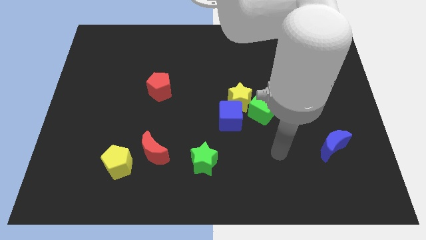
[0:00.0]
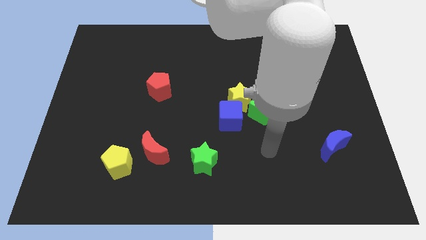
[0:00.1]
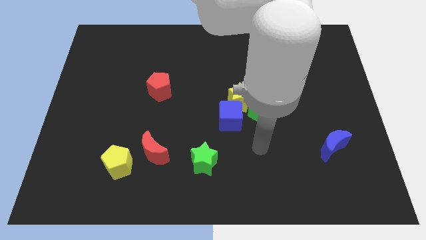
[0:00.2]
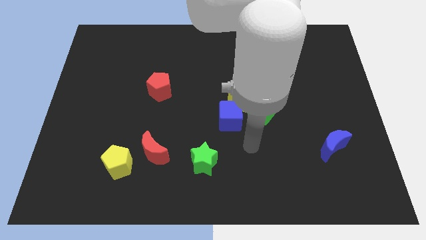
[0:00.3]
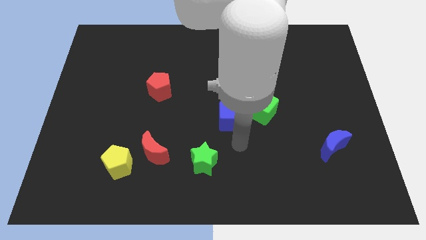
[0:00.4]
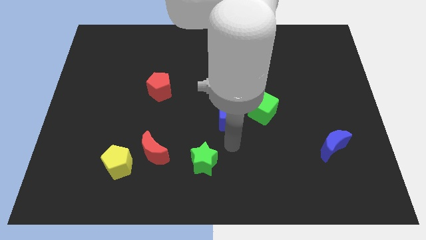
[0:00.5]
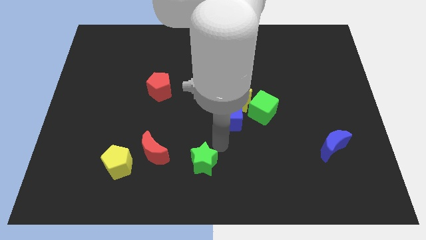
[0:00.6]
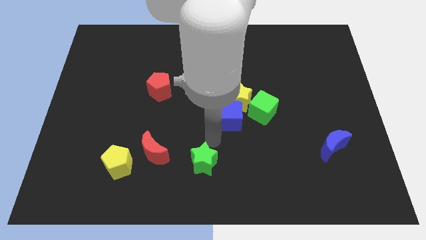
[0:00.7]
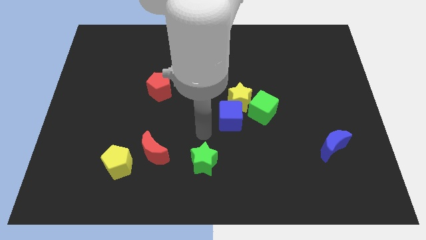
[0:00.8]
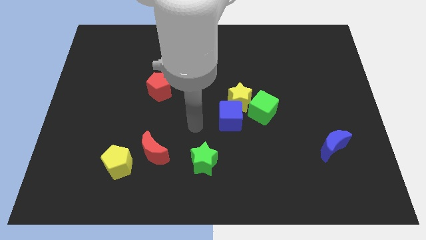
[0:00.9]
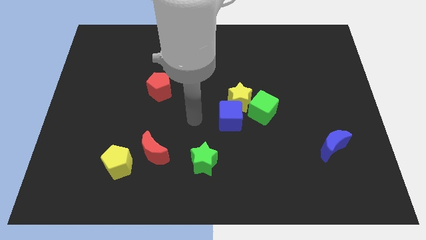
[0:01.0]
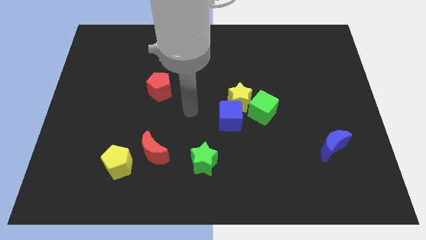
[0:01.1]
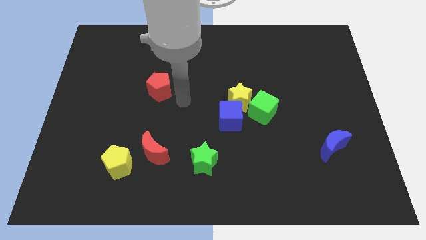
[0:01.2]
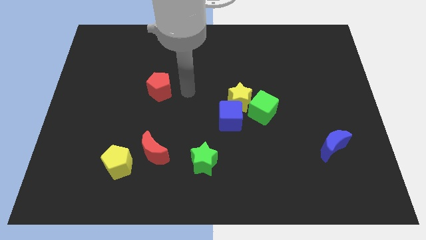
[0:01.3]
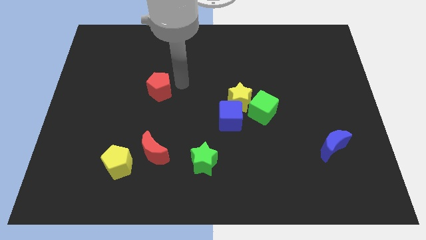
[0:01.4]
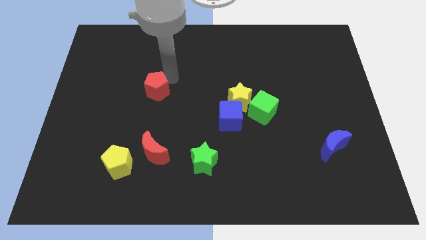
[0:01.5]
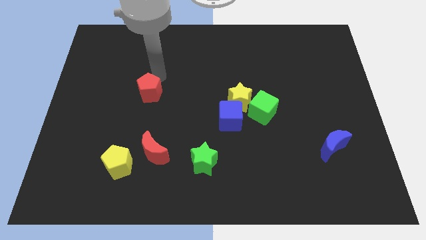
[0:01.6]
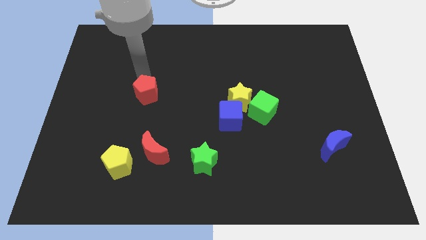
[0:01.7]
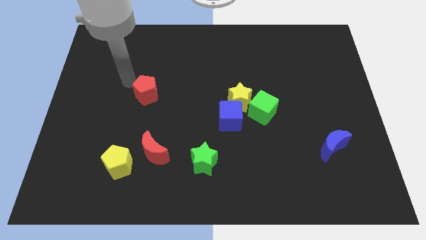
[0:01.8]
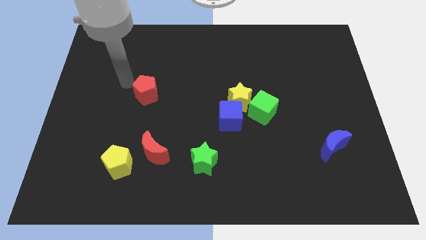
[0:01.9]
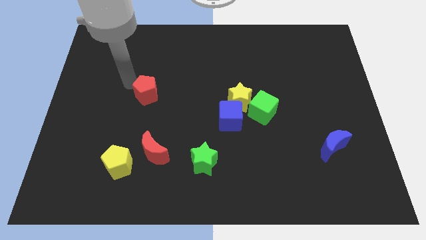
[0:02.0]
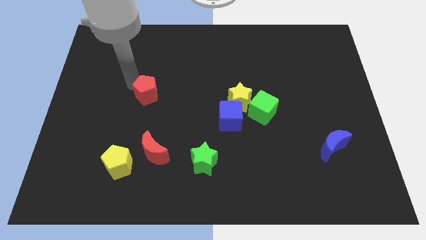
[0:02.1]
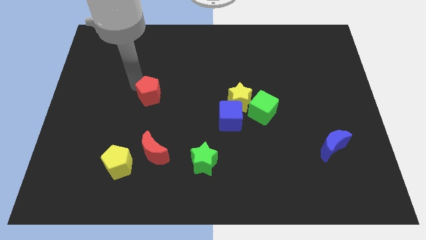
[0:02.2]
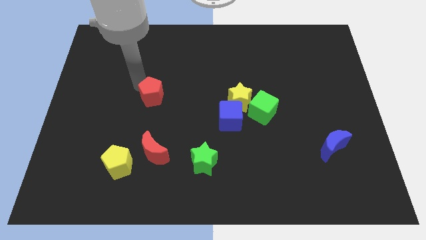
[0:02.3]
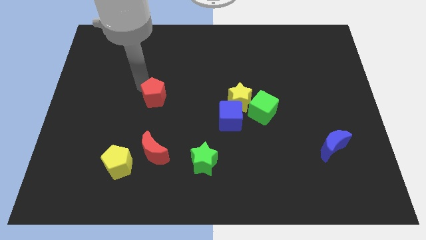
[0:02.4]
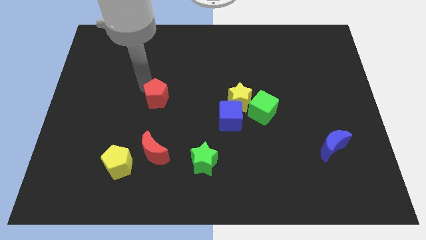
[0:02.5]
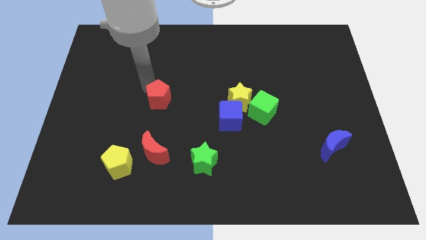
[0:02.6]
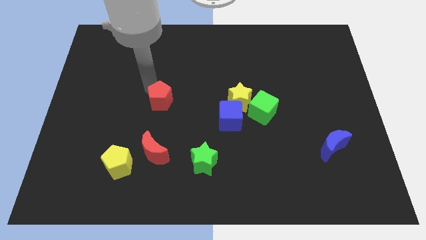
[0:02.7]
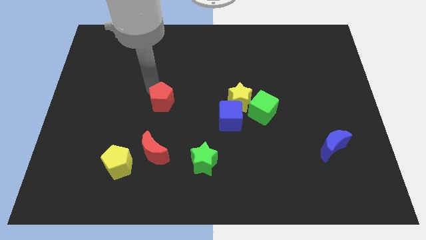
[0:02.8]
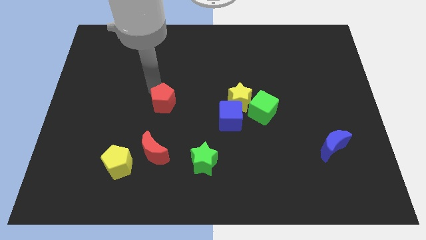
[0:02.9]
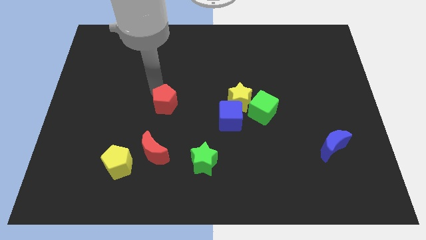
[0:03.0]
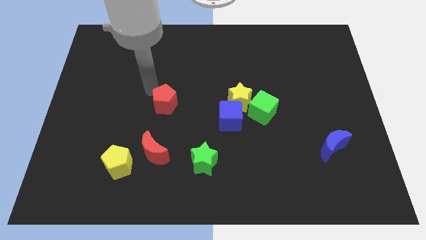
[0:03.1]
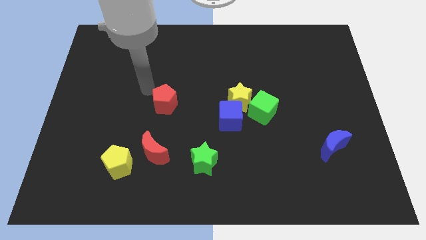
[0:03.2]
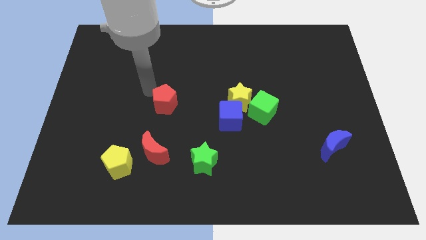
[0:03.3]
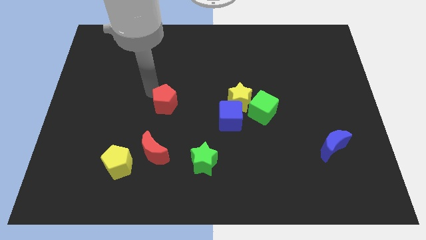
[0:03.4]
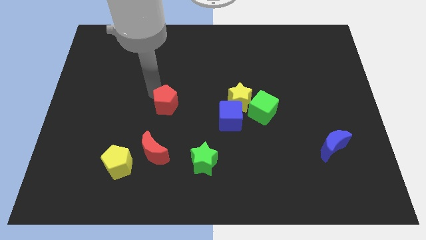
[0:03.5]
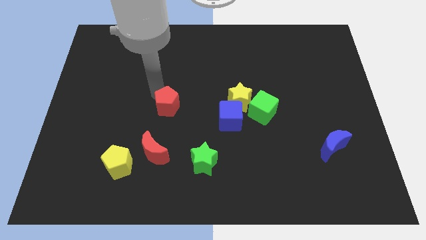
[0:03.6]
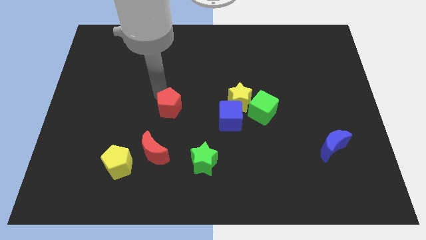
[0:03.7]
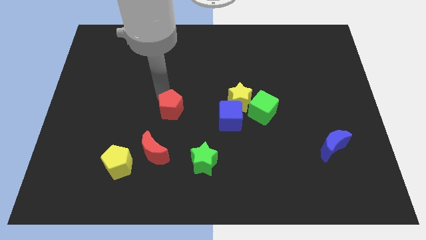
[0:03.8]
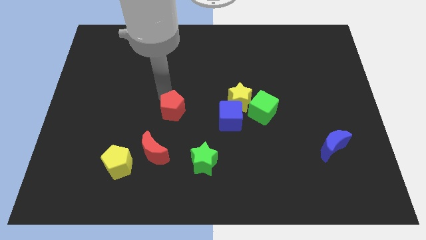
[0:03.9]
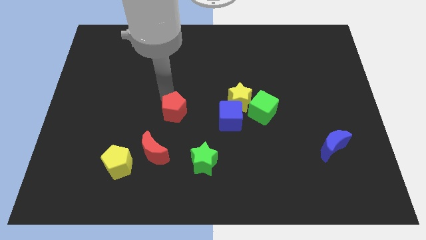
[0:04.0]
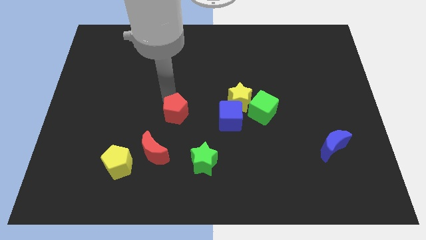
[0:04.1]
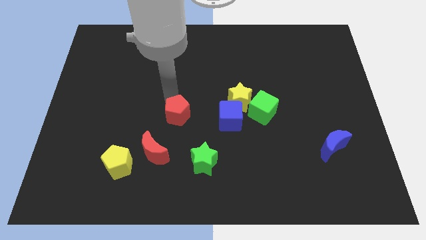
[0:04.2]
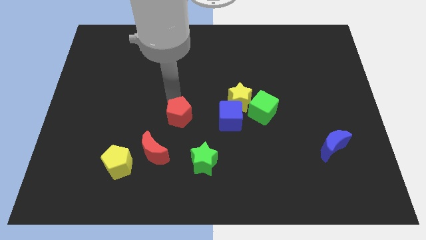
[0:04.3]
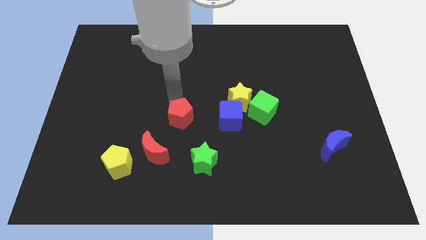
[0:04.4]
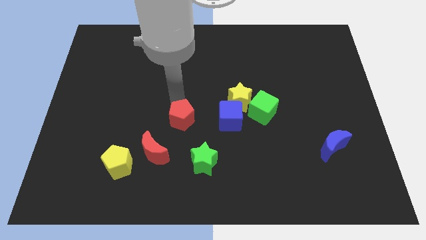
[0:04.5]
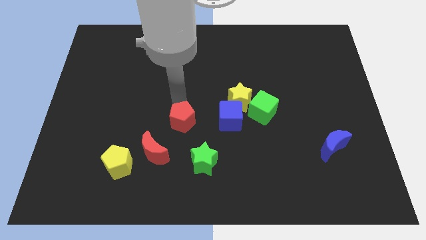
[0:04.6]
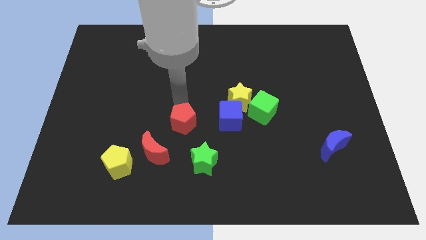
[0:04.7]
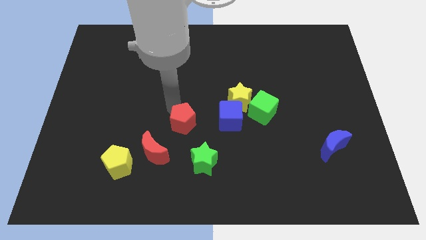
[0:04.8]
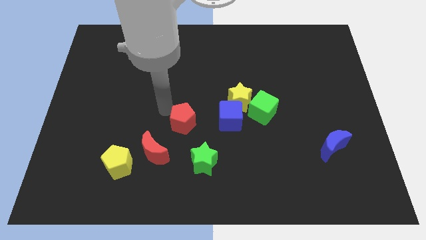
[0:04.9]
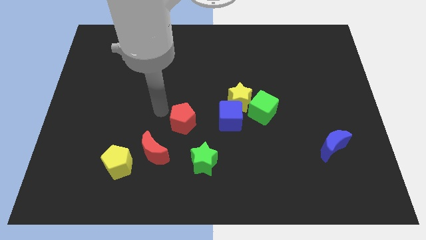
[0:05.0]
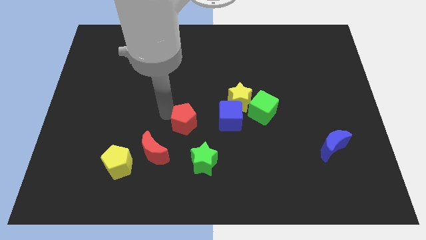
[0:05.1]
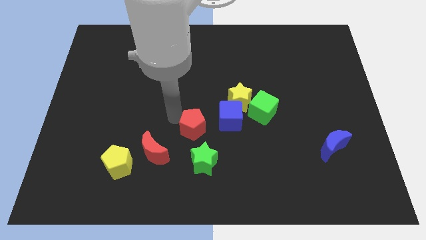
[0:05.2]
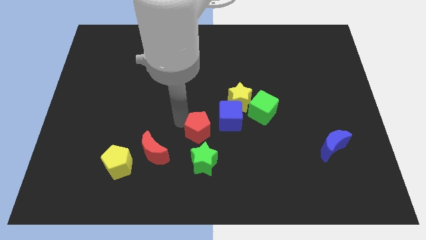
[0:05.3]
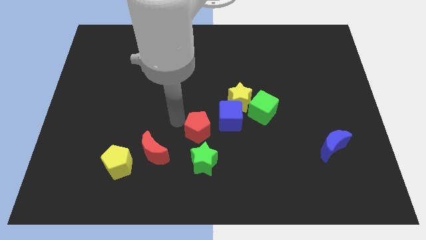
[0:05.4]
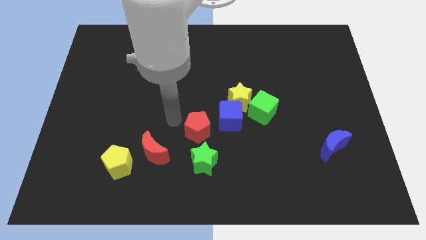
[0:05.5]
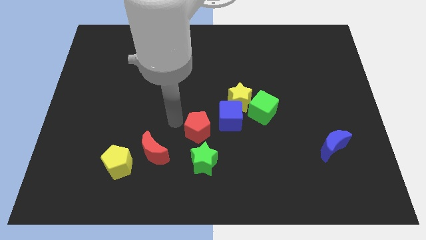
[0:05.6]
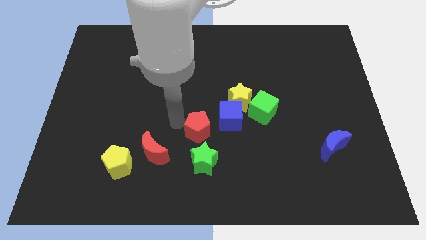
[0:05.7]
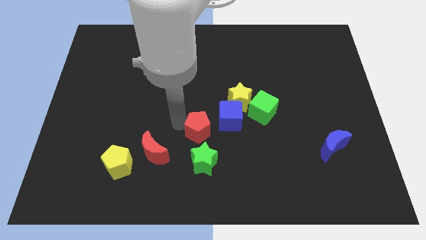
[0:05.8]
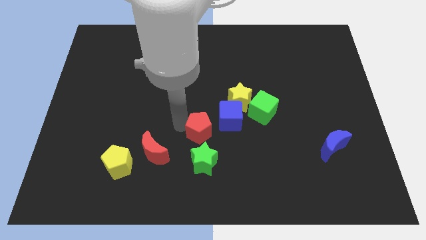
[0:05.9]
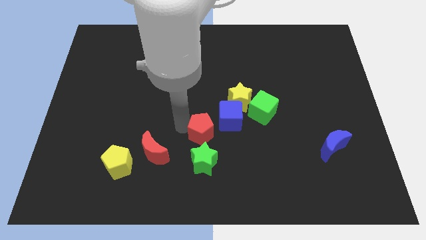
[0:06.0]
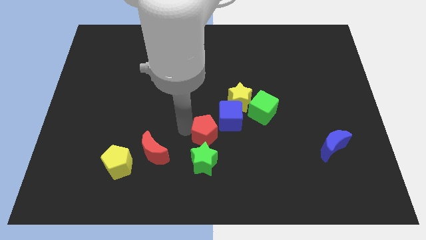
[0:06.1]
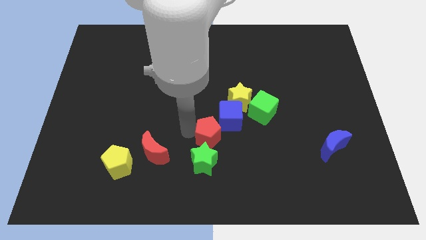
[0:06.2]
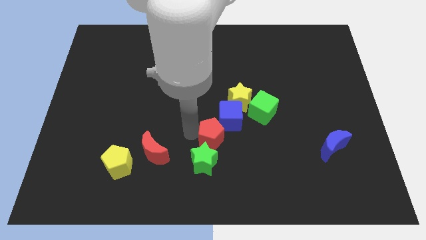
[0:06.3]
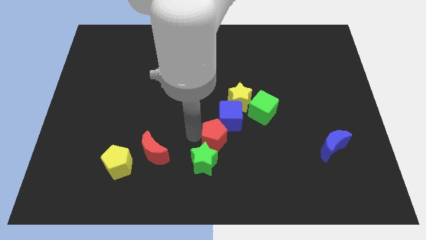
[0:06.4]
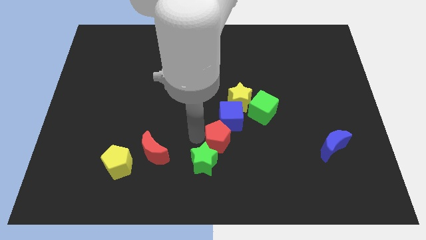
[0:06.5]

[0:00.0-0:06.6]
push the red pentagon downwards and right

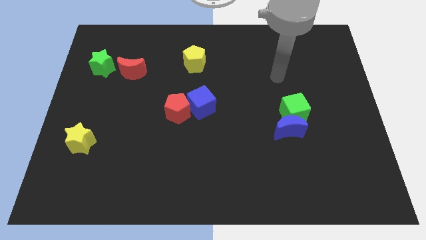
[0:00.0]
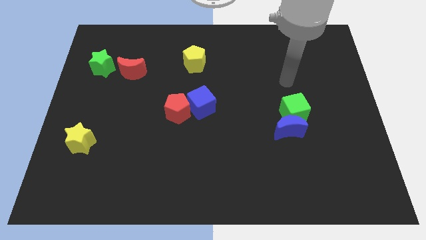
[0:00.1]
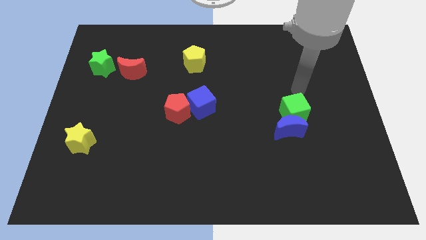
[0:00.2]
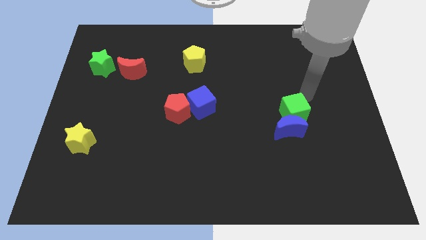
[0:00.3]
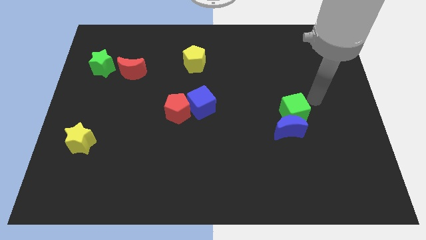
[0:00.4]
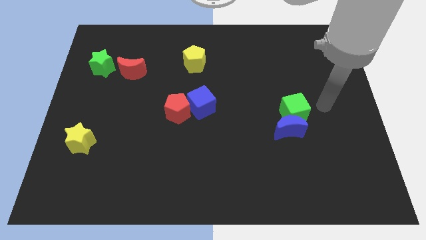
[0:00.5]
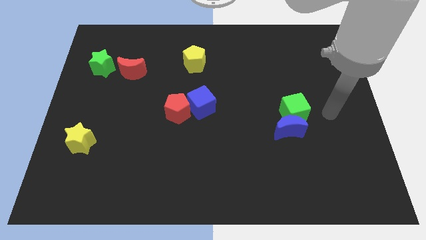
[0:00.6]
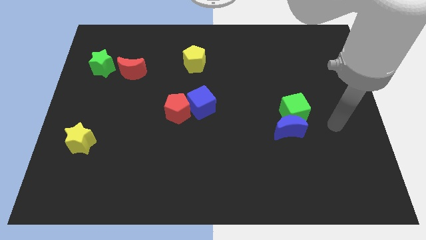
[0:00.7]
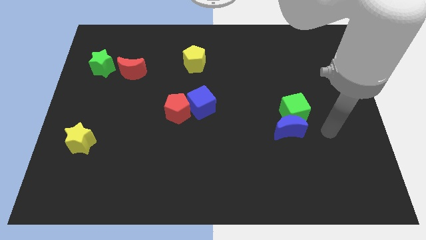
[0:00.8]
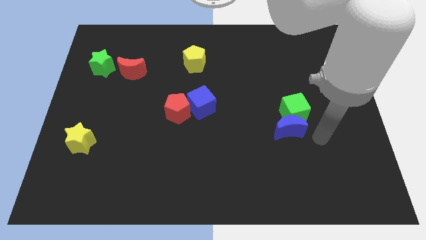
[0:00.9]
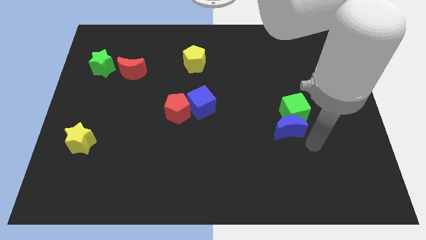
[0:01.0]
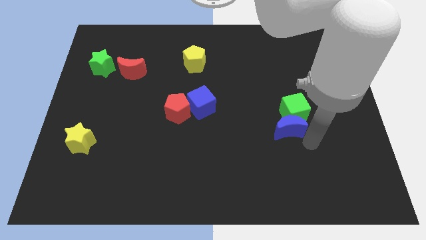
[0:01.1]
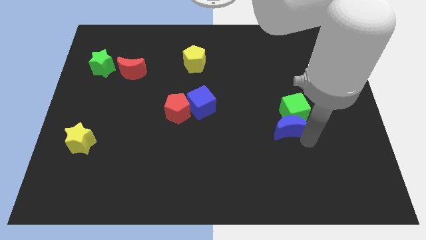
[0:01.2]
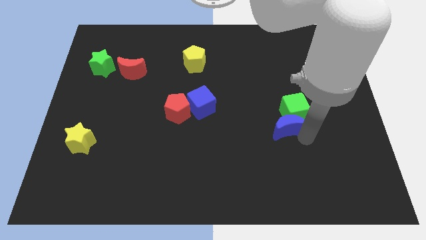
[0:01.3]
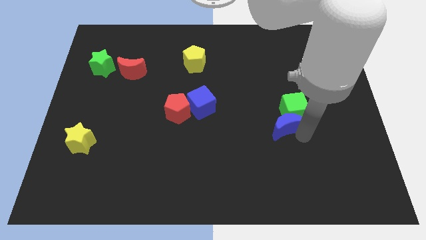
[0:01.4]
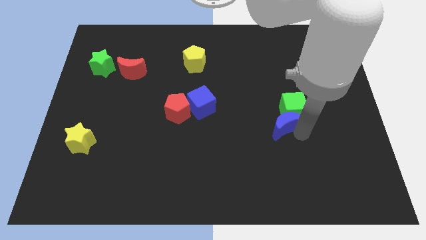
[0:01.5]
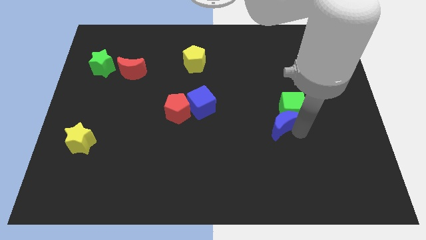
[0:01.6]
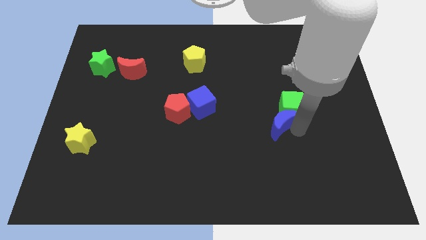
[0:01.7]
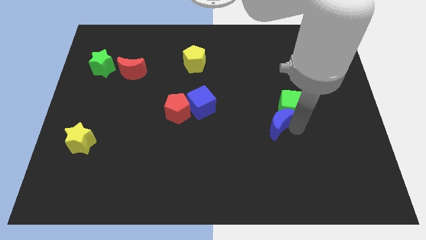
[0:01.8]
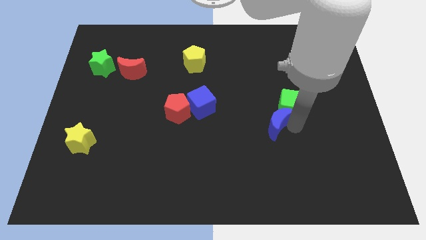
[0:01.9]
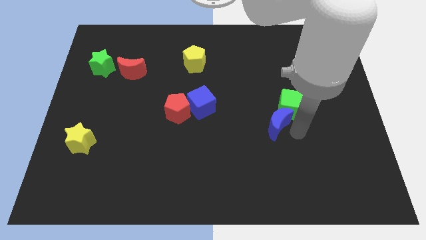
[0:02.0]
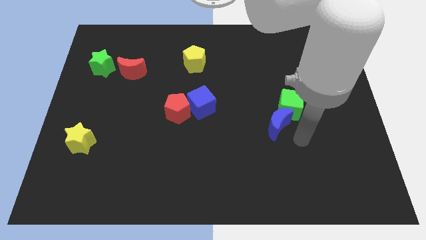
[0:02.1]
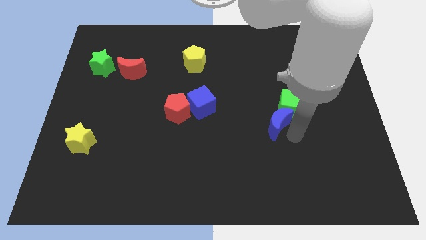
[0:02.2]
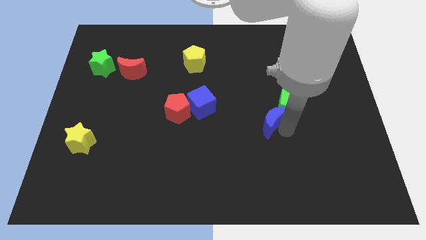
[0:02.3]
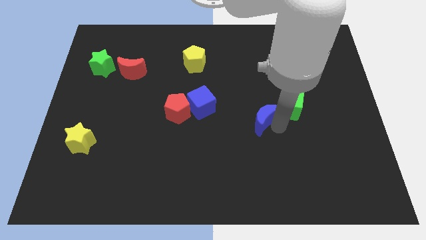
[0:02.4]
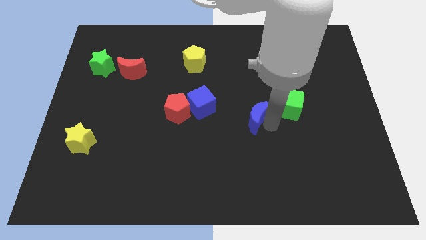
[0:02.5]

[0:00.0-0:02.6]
push the blue moon up and left slightly
